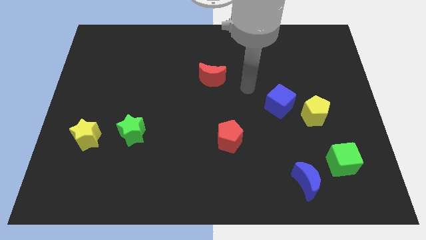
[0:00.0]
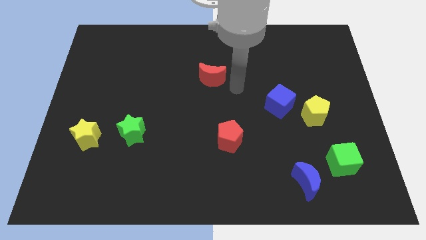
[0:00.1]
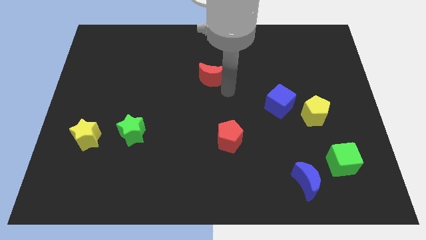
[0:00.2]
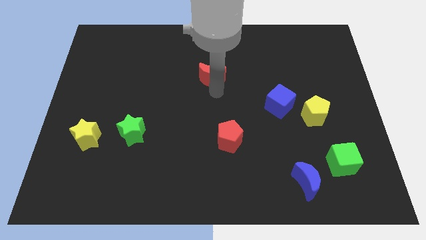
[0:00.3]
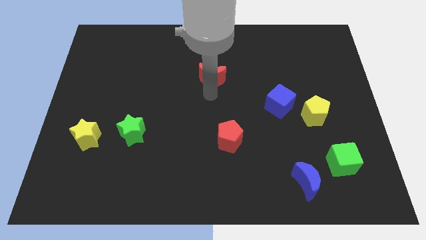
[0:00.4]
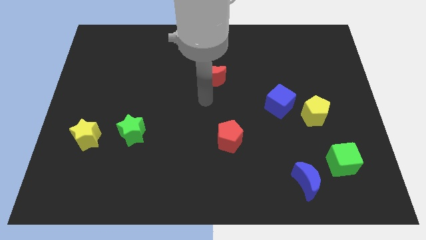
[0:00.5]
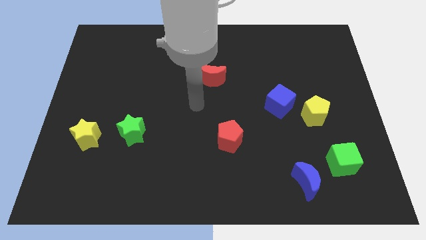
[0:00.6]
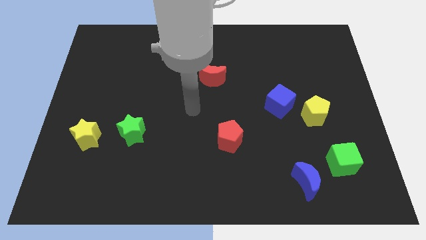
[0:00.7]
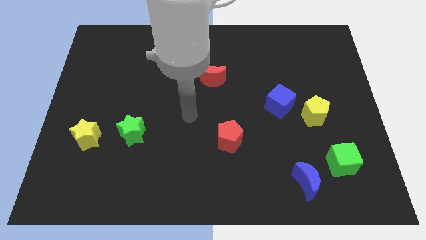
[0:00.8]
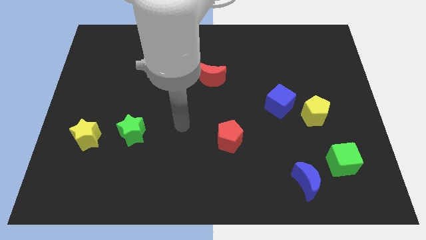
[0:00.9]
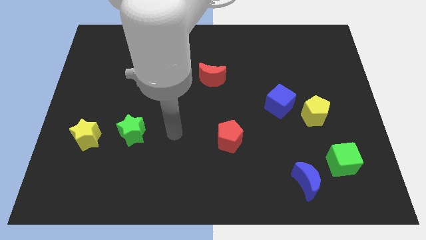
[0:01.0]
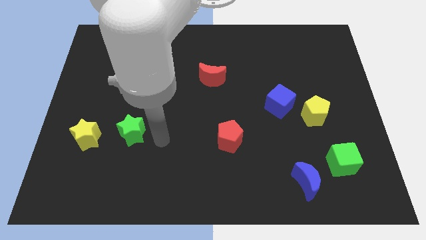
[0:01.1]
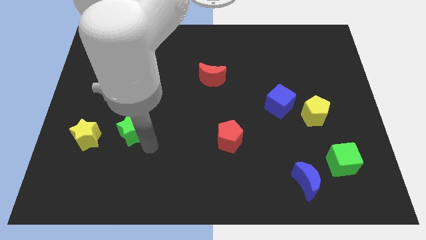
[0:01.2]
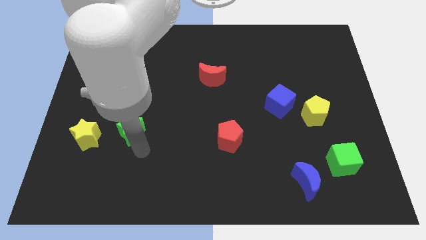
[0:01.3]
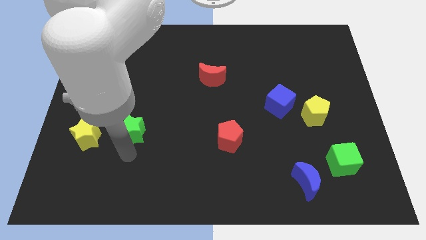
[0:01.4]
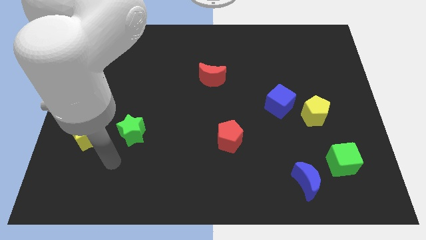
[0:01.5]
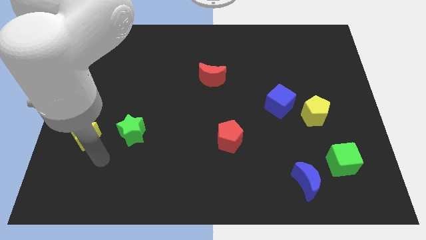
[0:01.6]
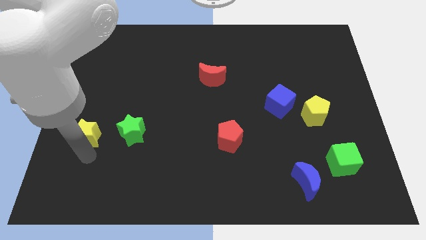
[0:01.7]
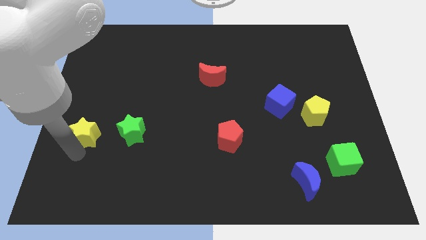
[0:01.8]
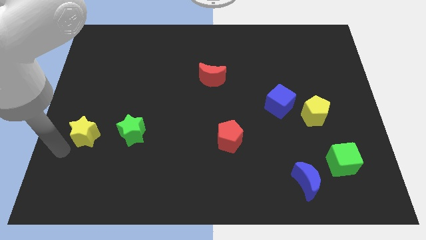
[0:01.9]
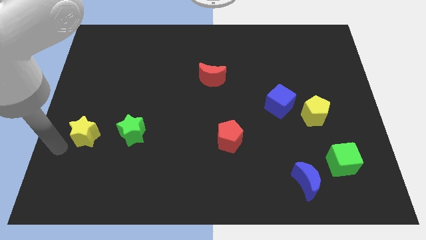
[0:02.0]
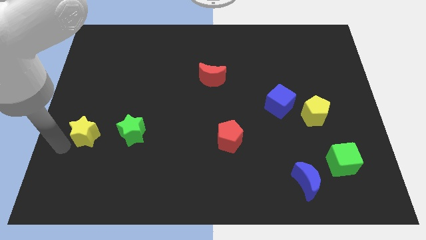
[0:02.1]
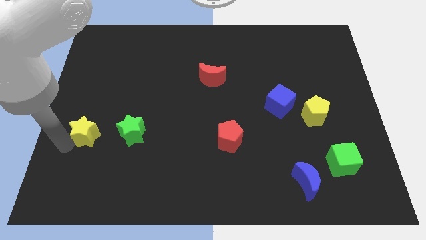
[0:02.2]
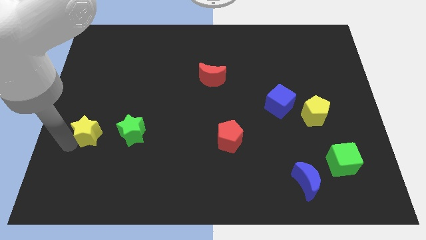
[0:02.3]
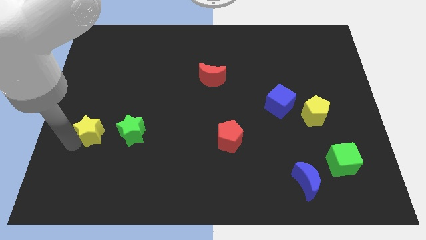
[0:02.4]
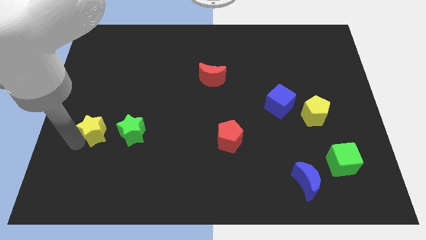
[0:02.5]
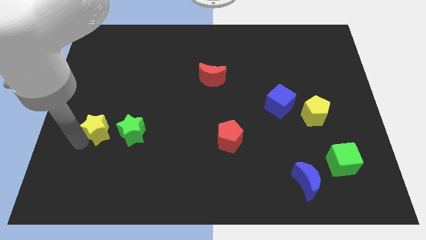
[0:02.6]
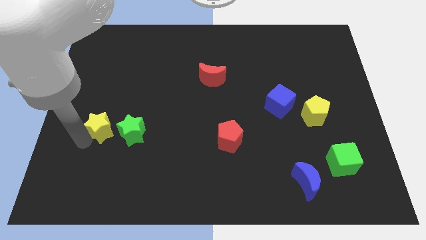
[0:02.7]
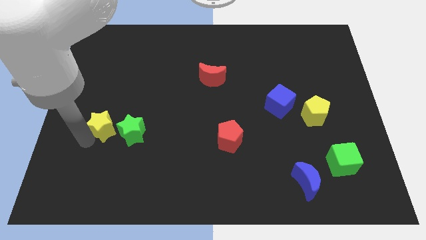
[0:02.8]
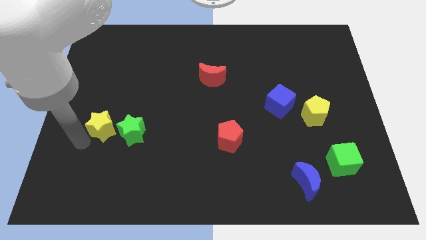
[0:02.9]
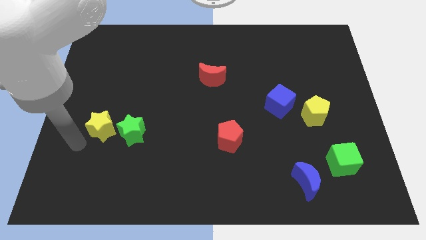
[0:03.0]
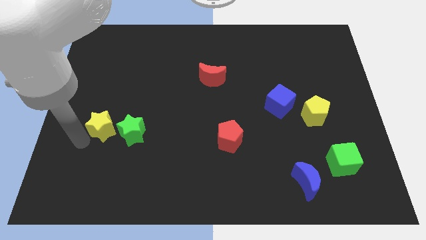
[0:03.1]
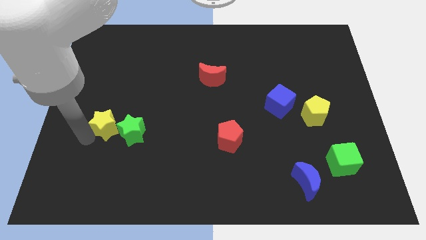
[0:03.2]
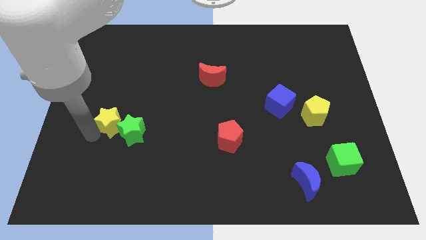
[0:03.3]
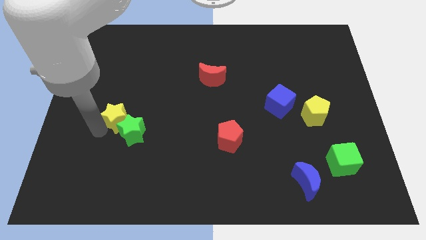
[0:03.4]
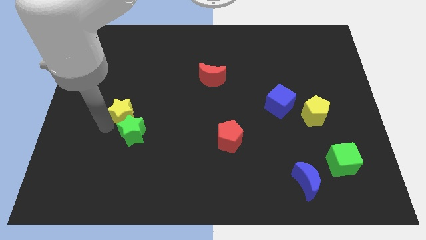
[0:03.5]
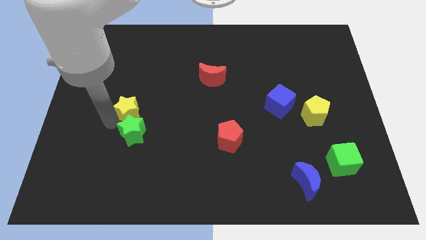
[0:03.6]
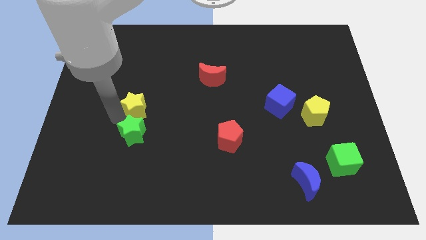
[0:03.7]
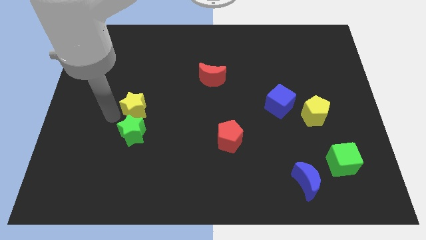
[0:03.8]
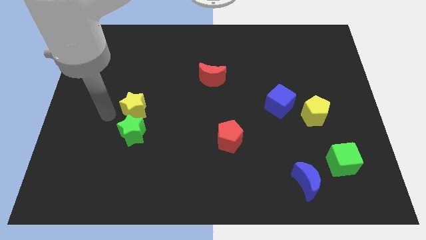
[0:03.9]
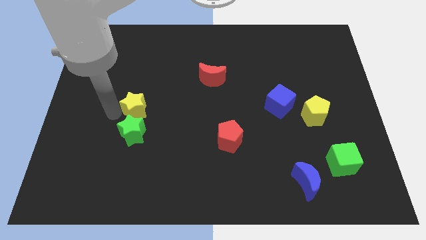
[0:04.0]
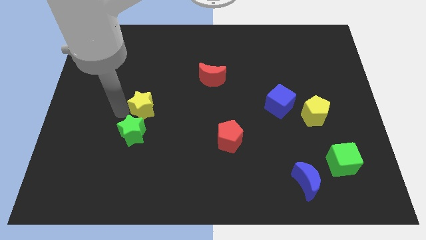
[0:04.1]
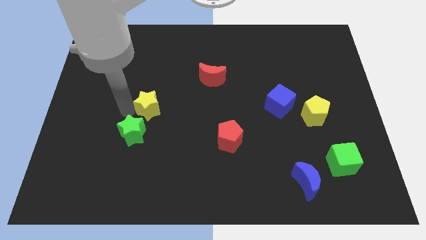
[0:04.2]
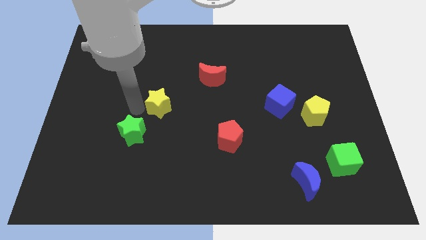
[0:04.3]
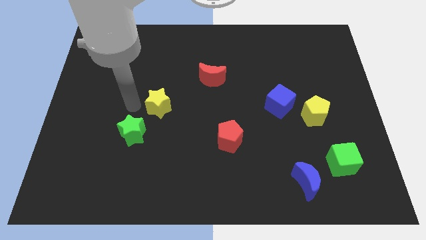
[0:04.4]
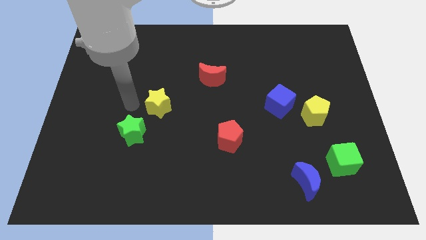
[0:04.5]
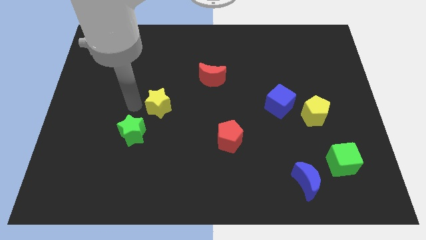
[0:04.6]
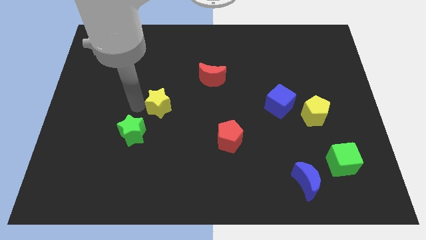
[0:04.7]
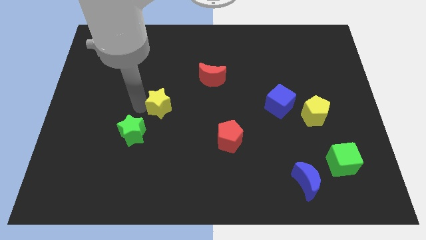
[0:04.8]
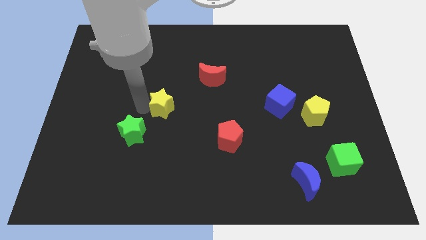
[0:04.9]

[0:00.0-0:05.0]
put the yellow star to the middle of the board
